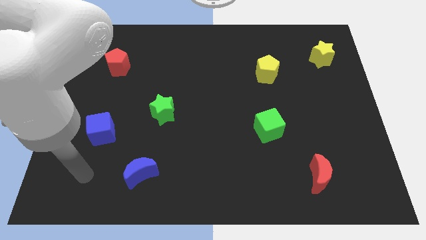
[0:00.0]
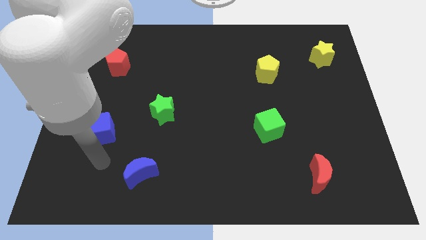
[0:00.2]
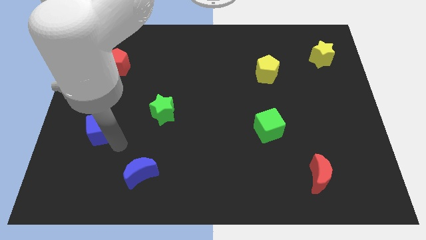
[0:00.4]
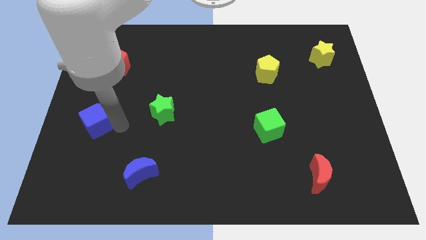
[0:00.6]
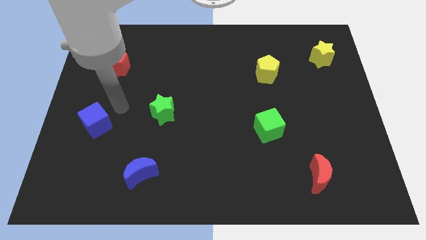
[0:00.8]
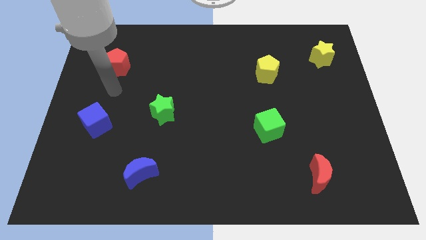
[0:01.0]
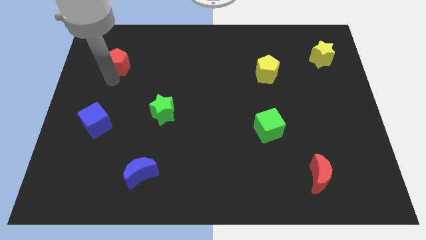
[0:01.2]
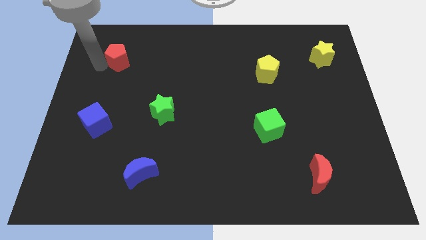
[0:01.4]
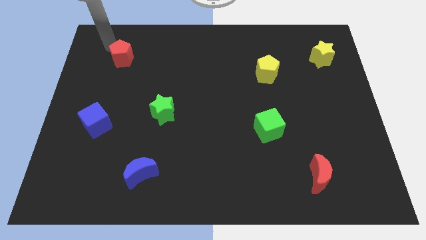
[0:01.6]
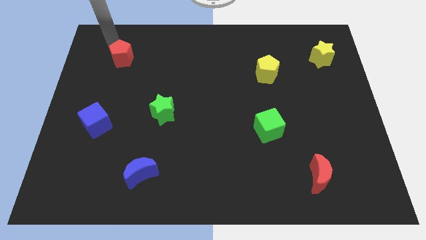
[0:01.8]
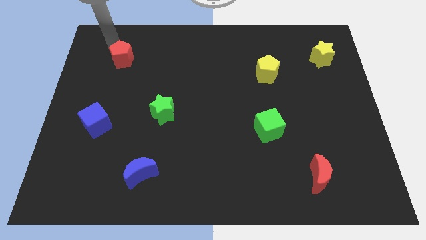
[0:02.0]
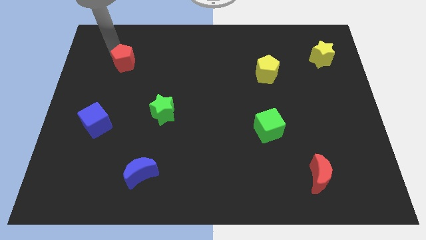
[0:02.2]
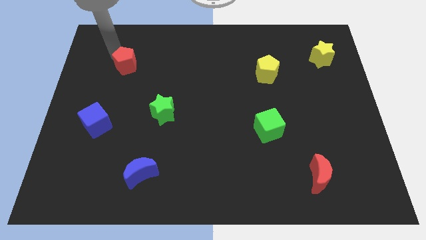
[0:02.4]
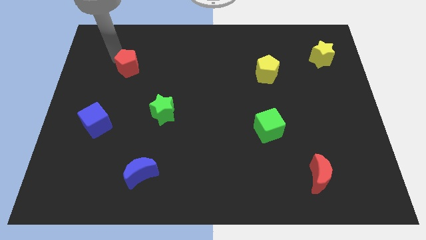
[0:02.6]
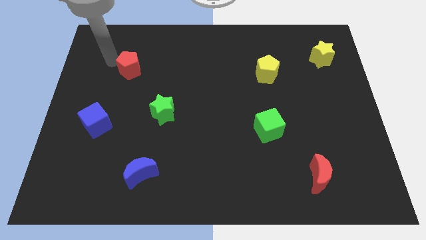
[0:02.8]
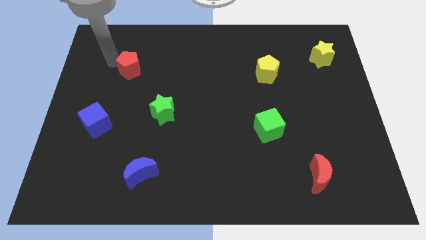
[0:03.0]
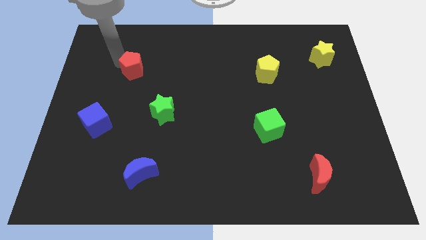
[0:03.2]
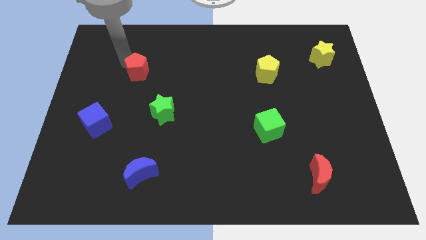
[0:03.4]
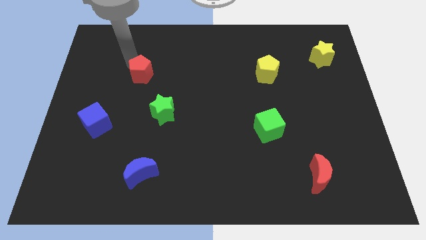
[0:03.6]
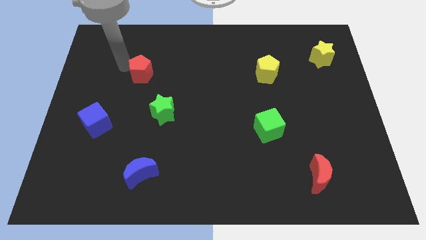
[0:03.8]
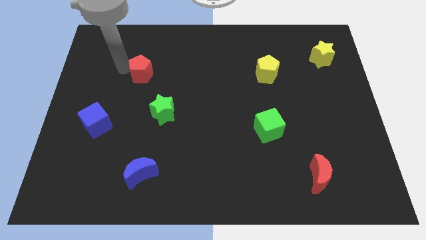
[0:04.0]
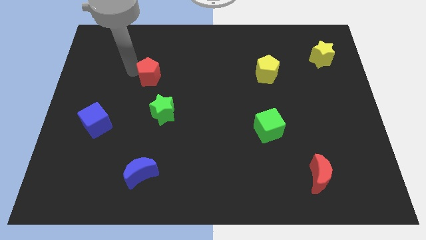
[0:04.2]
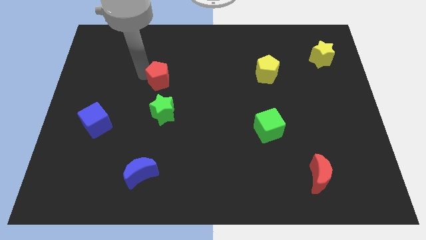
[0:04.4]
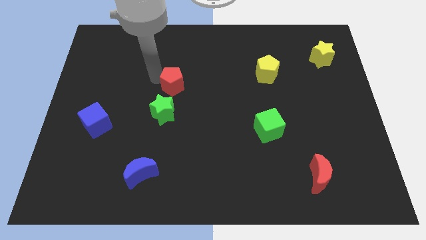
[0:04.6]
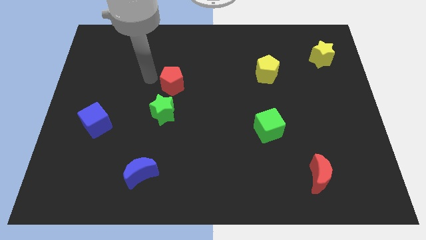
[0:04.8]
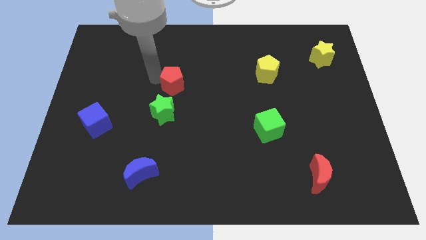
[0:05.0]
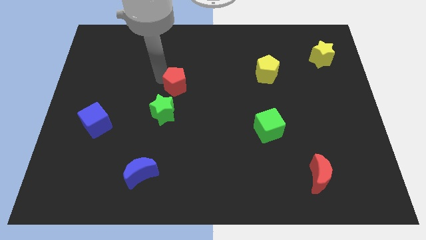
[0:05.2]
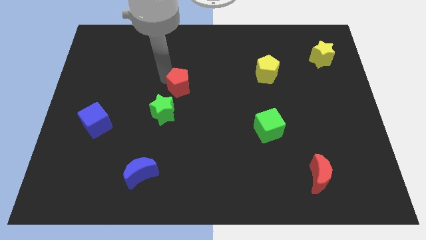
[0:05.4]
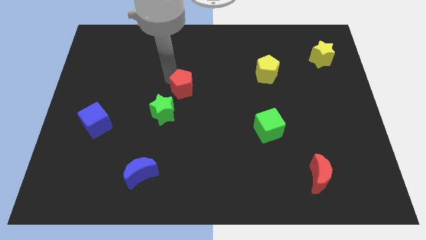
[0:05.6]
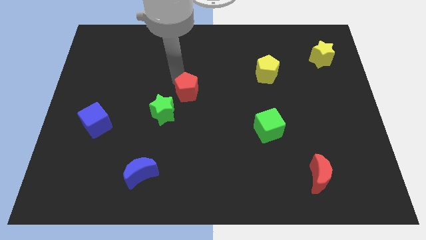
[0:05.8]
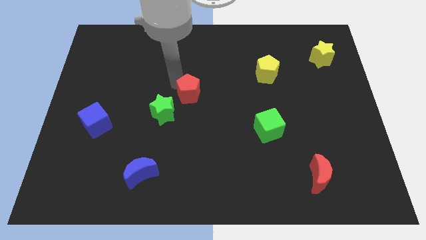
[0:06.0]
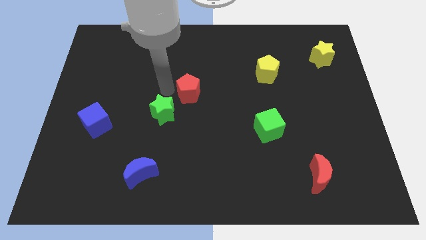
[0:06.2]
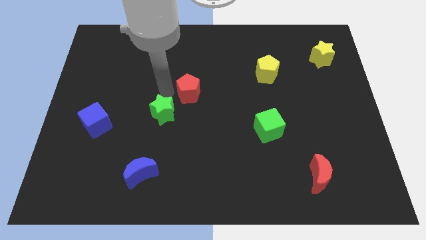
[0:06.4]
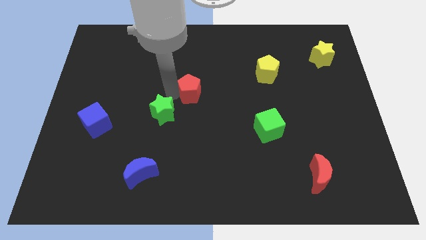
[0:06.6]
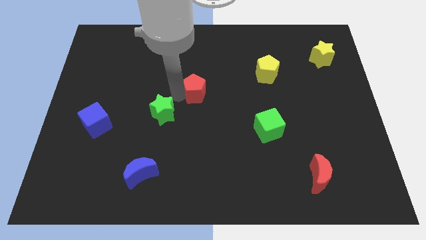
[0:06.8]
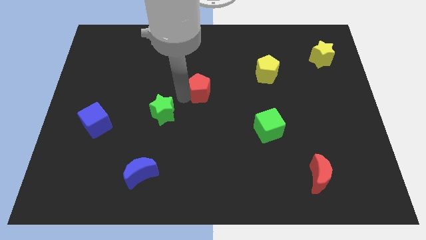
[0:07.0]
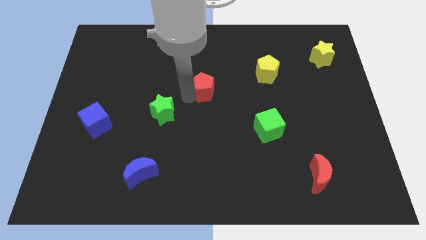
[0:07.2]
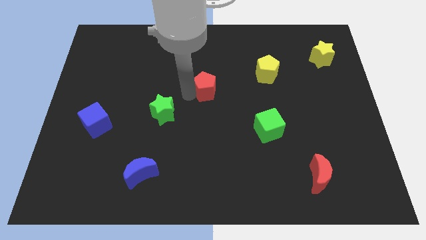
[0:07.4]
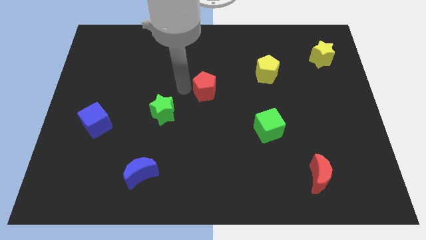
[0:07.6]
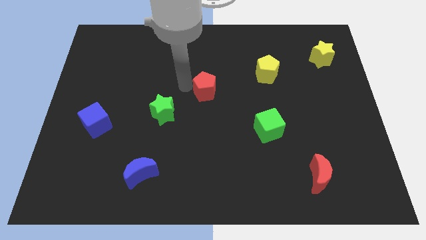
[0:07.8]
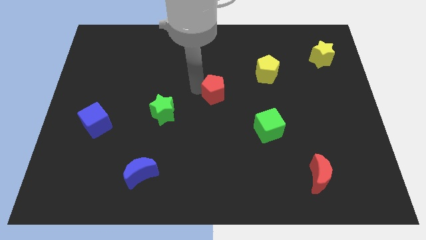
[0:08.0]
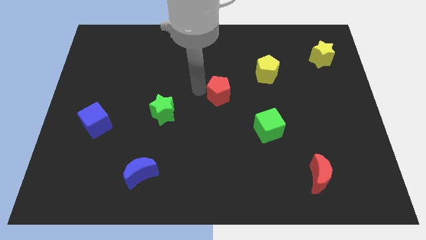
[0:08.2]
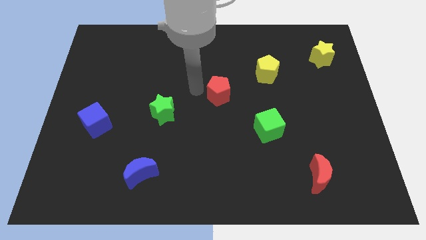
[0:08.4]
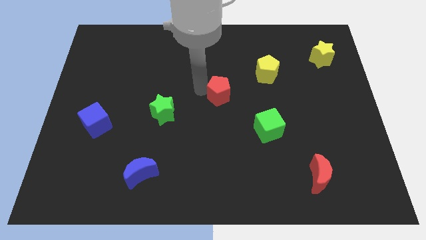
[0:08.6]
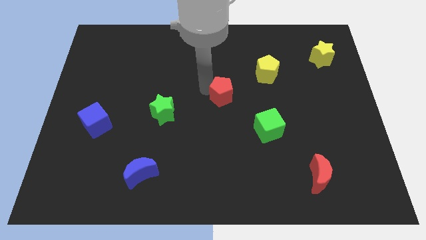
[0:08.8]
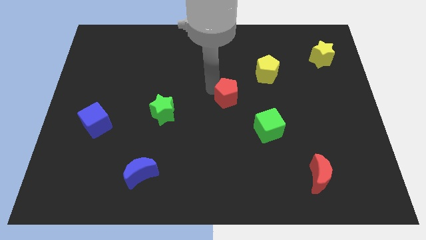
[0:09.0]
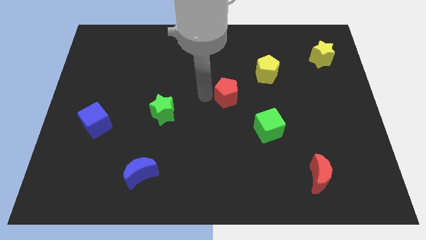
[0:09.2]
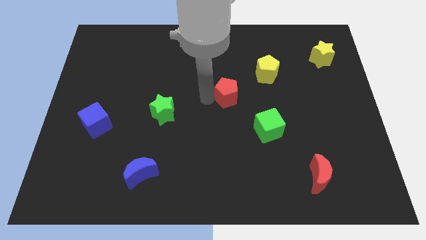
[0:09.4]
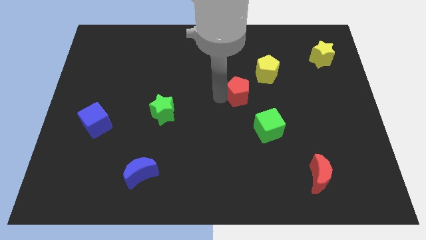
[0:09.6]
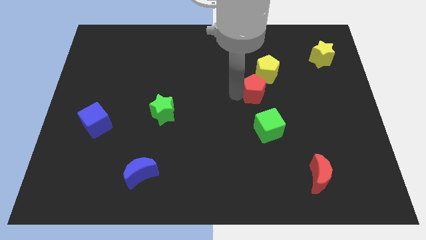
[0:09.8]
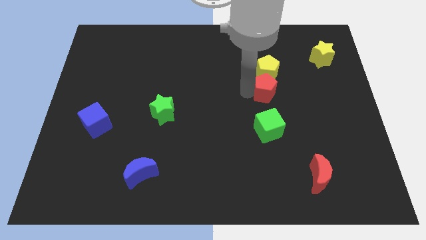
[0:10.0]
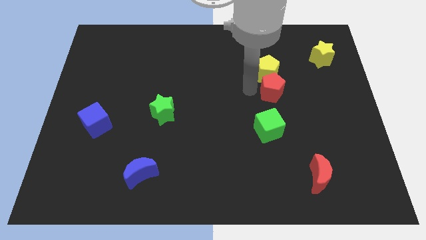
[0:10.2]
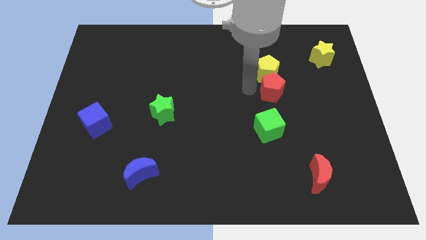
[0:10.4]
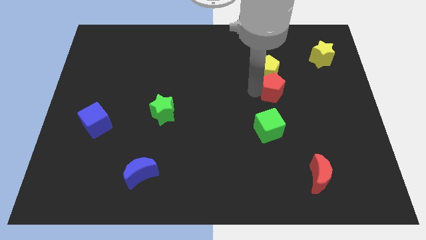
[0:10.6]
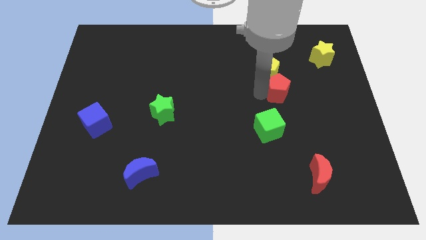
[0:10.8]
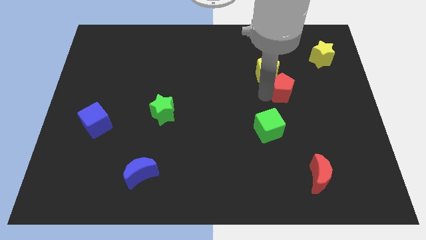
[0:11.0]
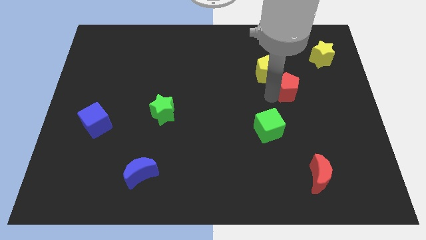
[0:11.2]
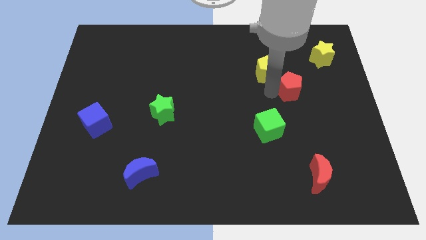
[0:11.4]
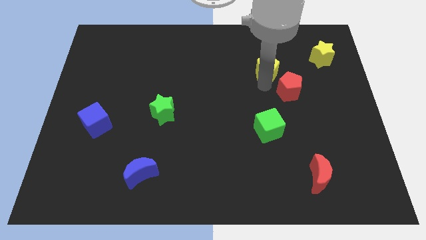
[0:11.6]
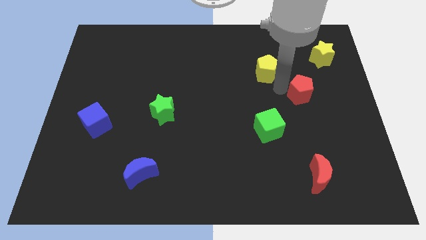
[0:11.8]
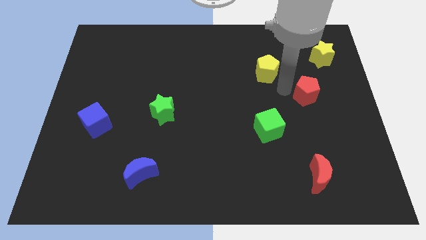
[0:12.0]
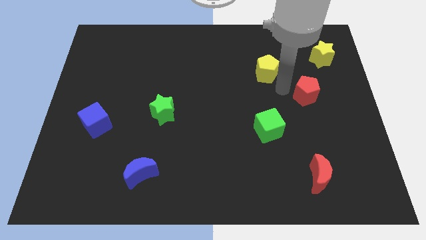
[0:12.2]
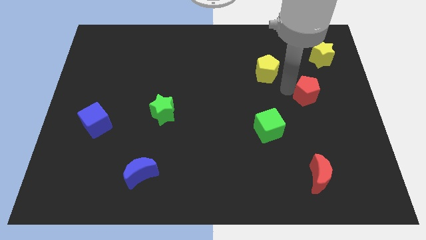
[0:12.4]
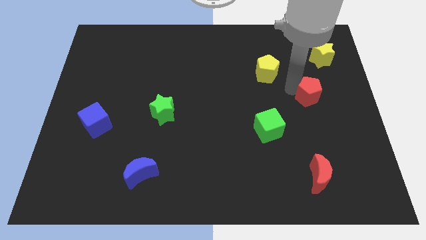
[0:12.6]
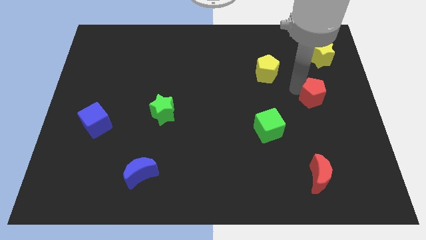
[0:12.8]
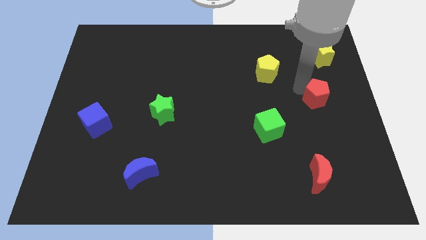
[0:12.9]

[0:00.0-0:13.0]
push the red pentagon to the right side of the board
